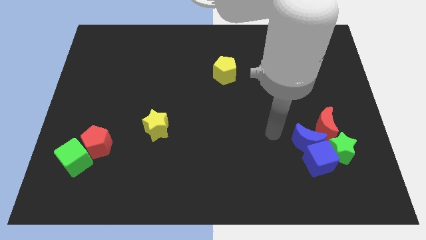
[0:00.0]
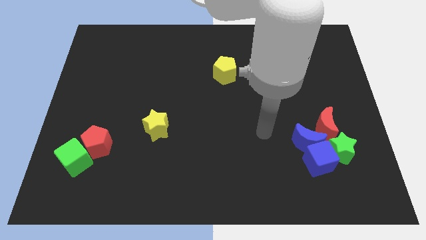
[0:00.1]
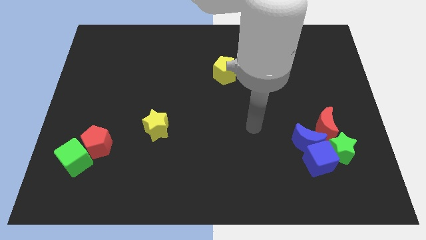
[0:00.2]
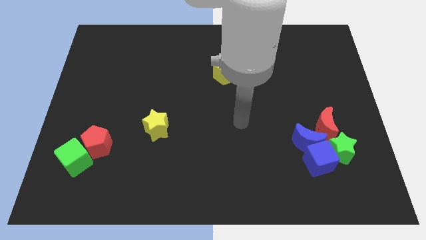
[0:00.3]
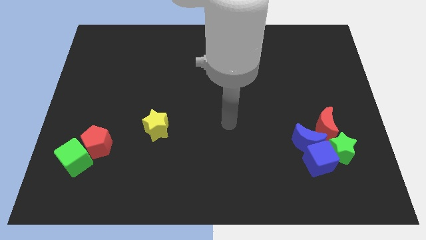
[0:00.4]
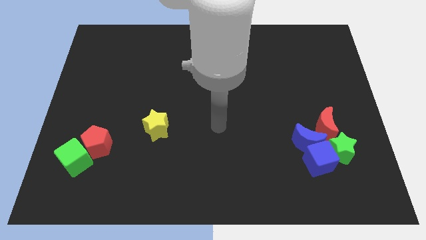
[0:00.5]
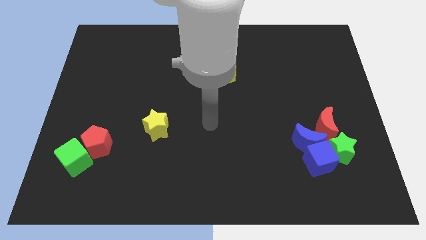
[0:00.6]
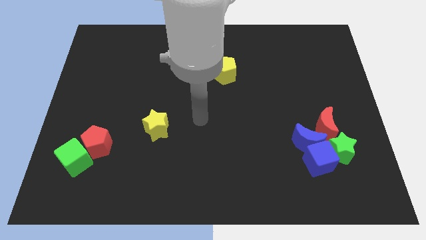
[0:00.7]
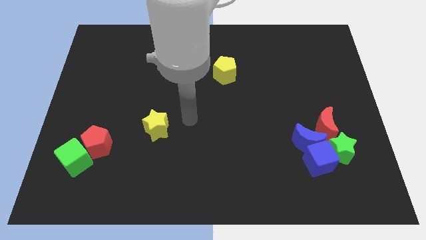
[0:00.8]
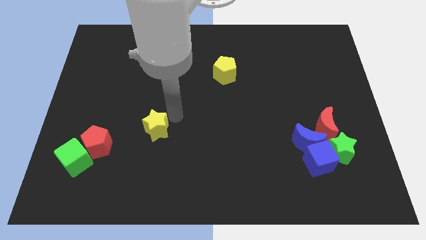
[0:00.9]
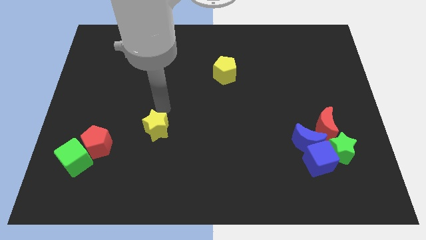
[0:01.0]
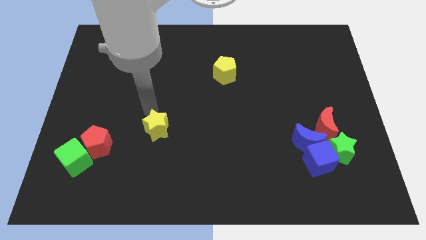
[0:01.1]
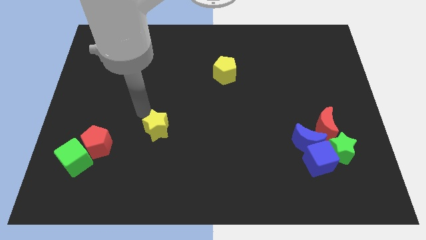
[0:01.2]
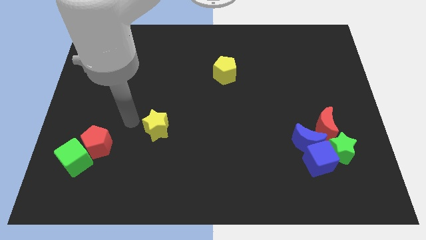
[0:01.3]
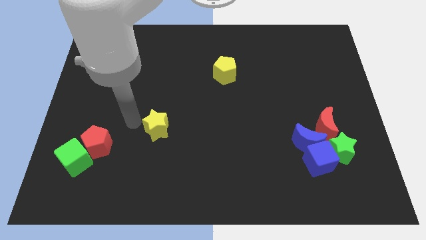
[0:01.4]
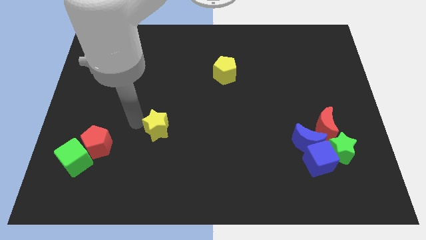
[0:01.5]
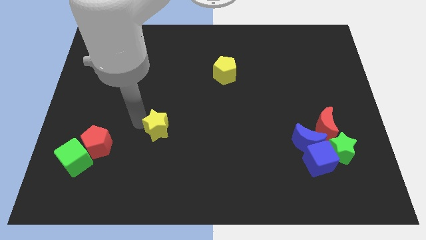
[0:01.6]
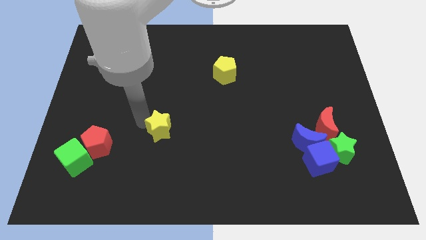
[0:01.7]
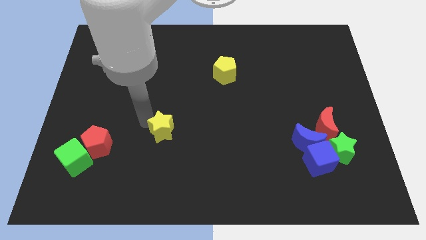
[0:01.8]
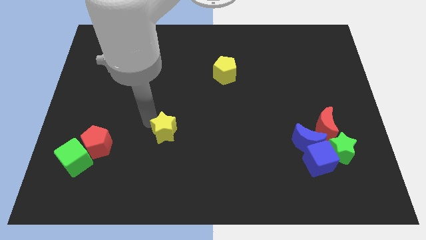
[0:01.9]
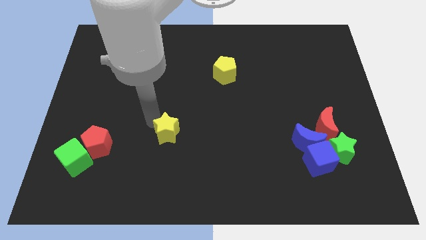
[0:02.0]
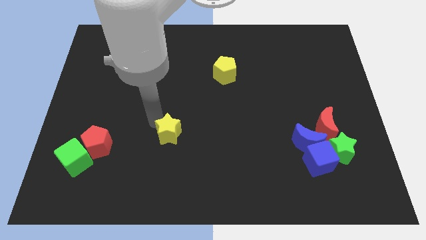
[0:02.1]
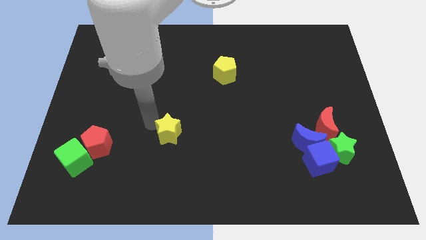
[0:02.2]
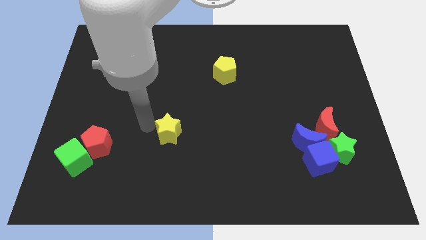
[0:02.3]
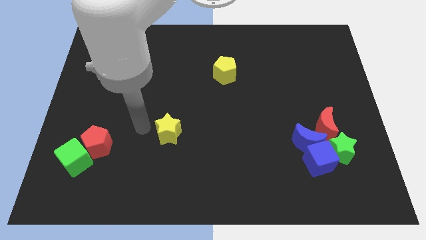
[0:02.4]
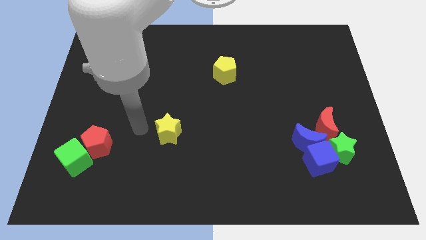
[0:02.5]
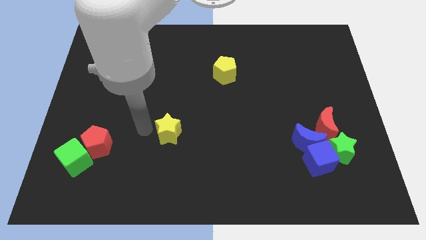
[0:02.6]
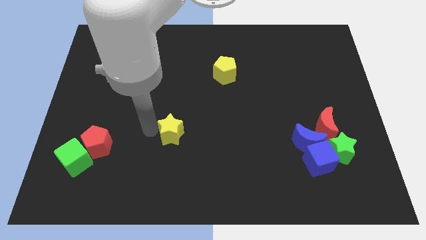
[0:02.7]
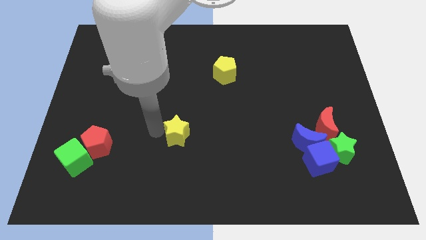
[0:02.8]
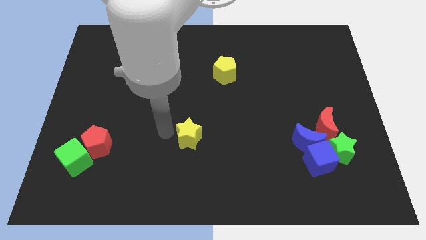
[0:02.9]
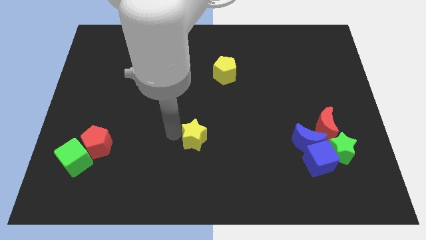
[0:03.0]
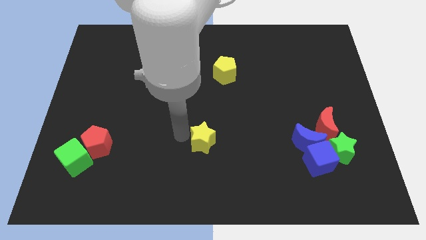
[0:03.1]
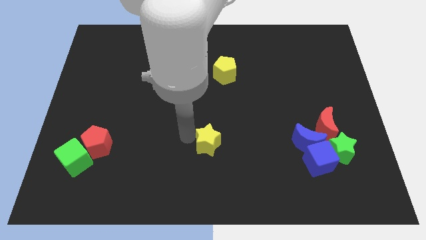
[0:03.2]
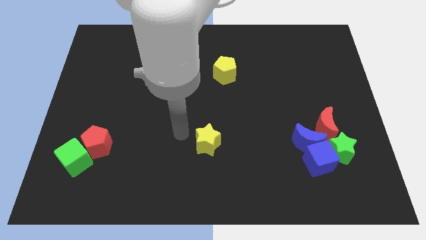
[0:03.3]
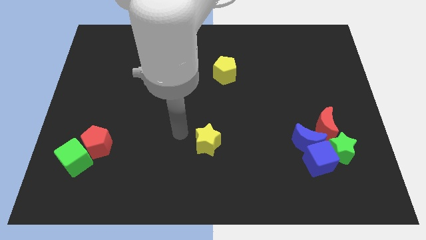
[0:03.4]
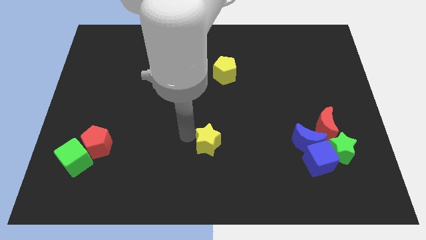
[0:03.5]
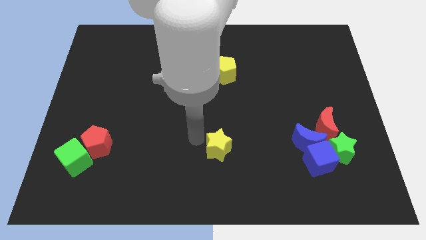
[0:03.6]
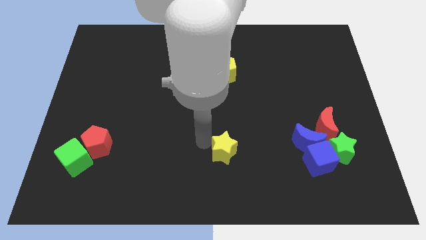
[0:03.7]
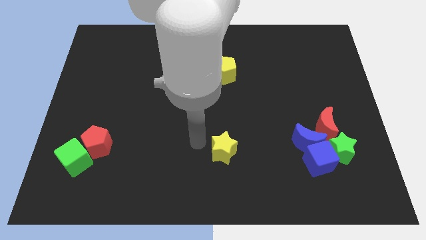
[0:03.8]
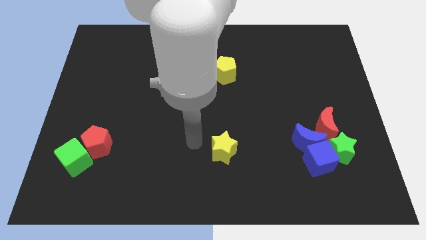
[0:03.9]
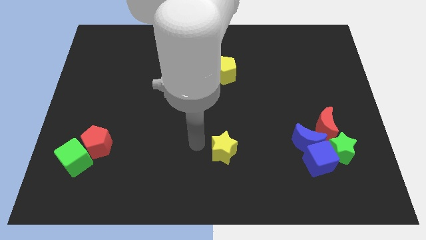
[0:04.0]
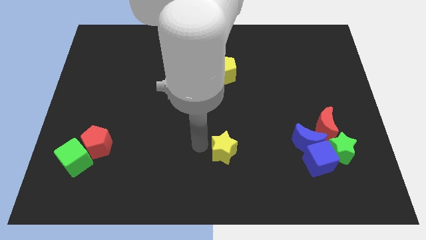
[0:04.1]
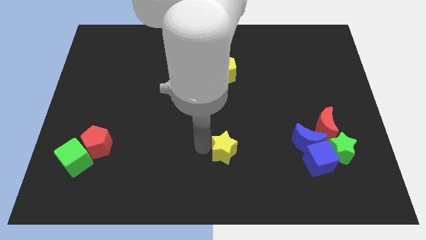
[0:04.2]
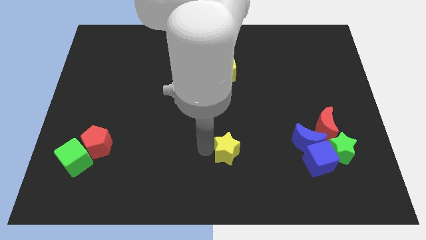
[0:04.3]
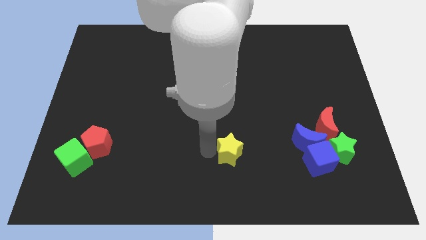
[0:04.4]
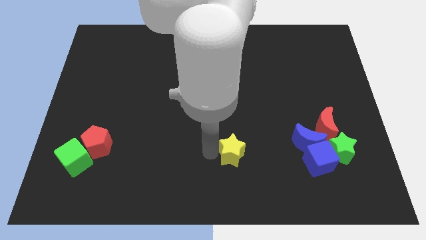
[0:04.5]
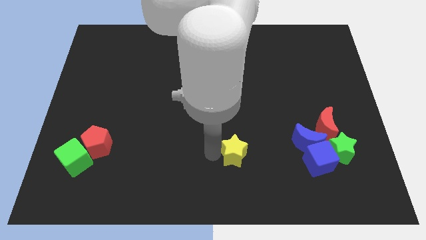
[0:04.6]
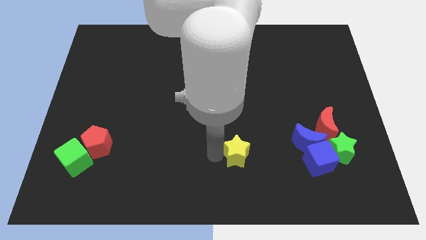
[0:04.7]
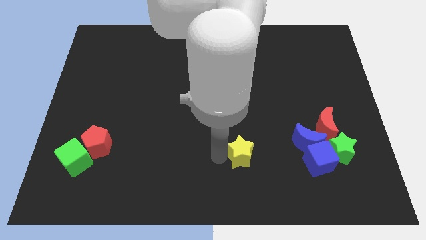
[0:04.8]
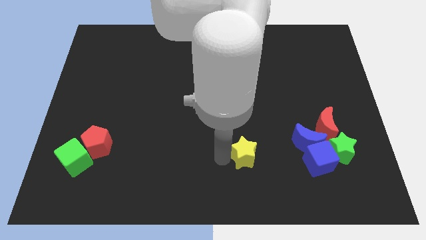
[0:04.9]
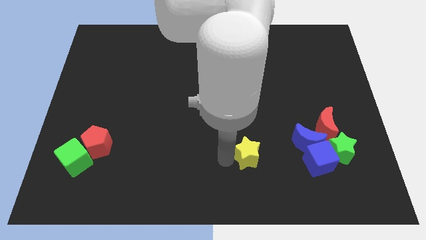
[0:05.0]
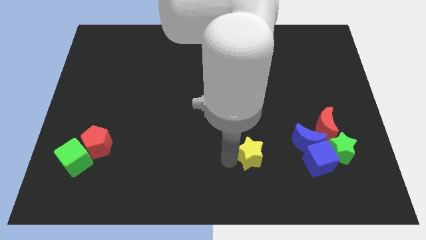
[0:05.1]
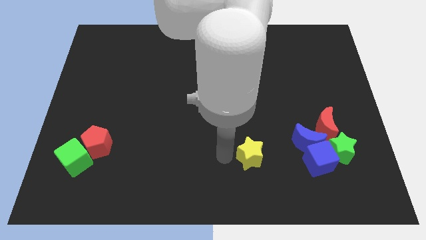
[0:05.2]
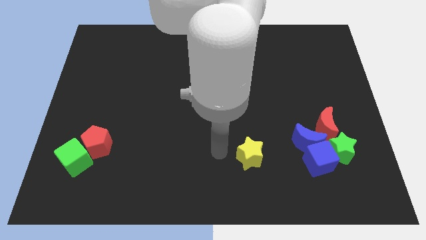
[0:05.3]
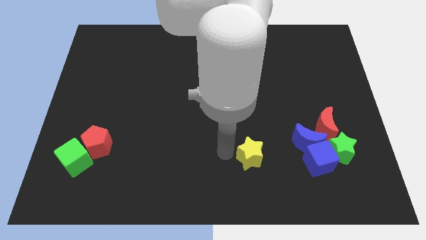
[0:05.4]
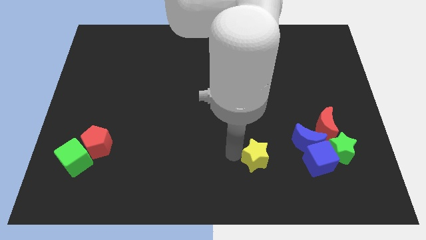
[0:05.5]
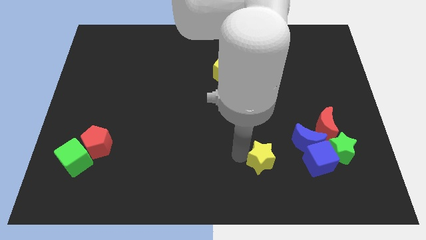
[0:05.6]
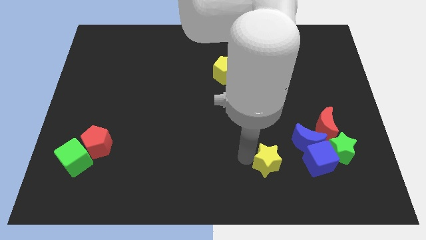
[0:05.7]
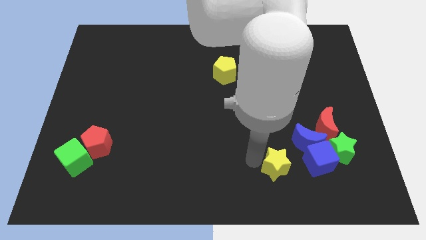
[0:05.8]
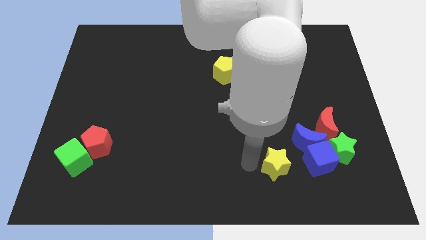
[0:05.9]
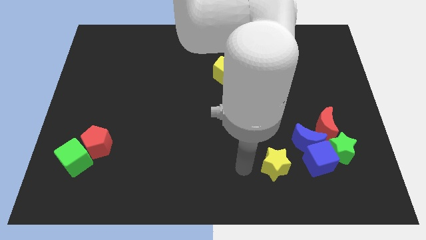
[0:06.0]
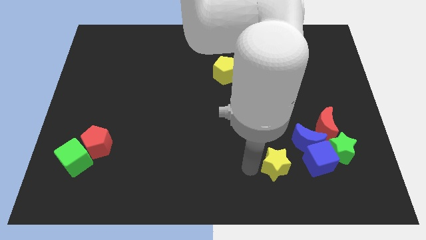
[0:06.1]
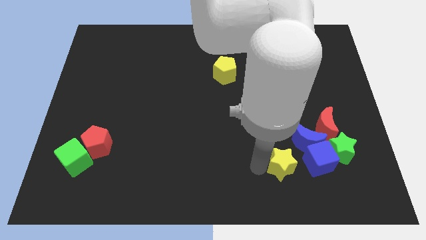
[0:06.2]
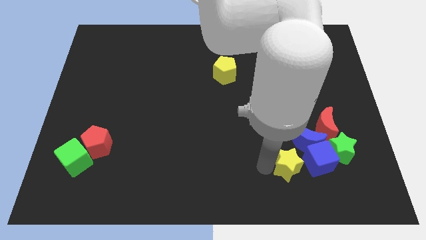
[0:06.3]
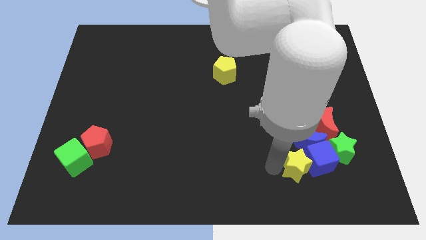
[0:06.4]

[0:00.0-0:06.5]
move the yellow star next to the blue cube

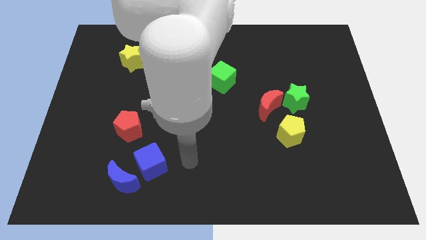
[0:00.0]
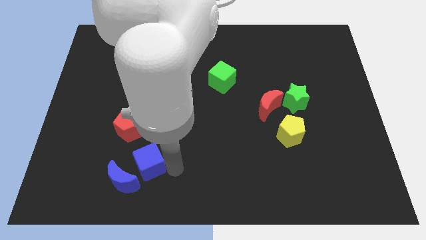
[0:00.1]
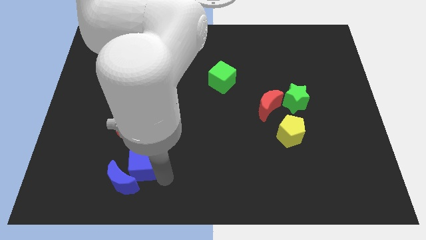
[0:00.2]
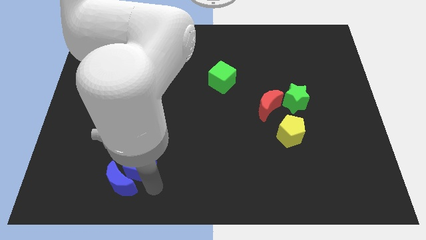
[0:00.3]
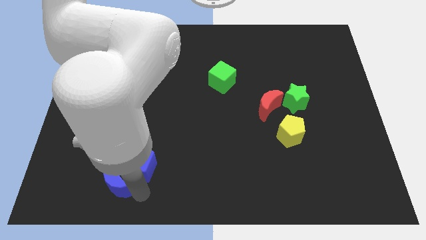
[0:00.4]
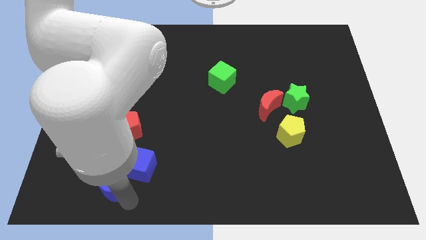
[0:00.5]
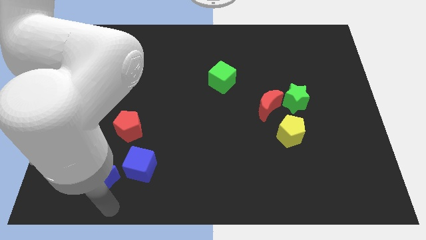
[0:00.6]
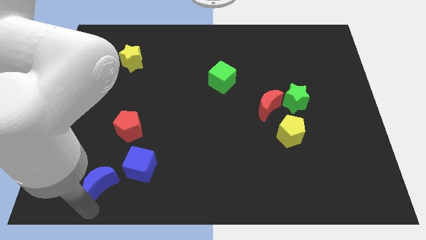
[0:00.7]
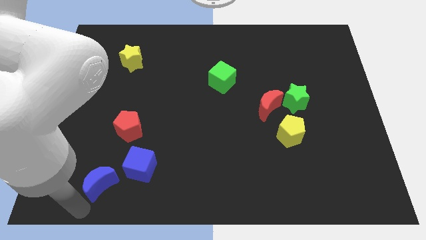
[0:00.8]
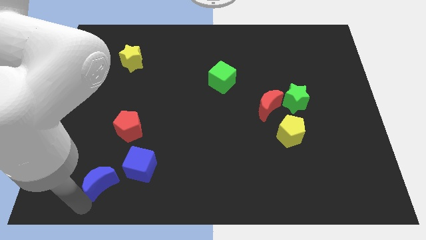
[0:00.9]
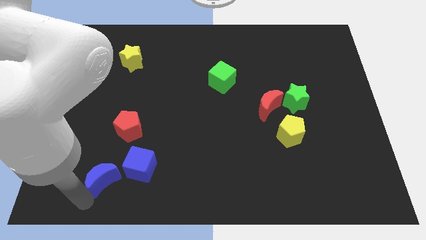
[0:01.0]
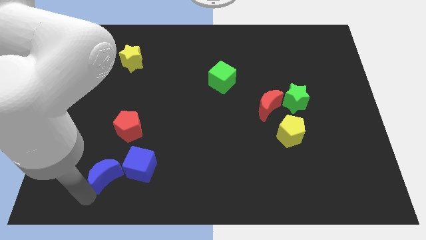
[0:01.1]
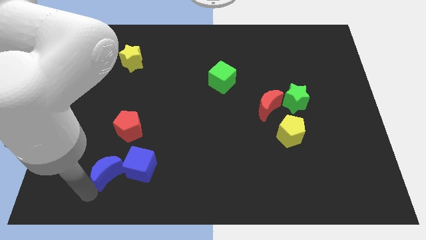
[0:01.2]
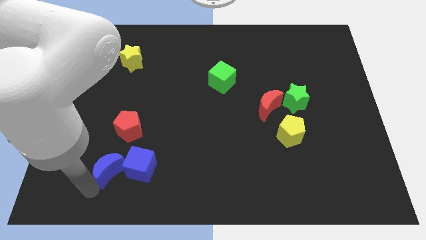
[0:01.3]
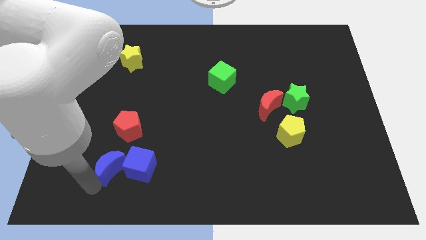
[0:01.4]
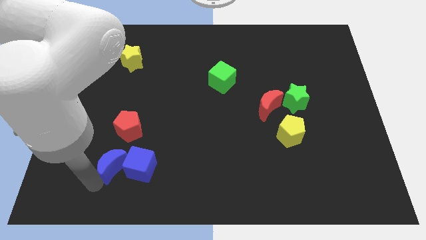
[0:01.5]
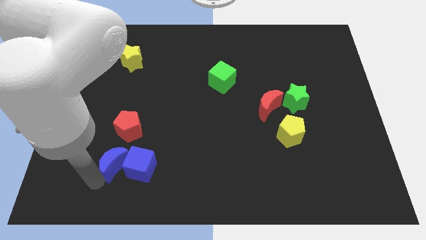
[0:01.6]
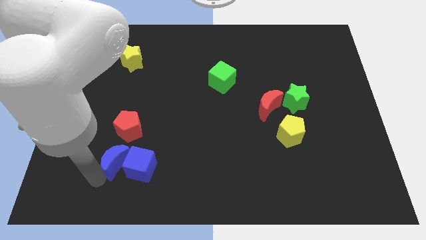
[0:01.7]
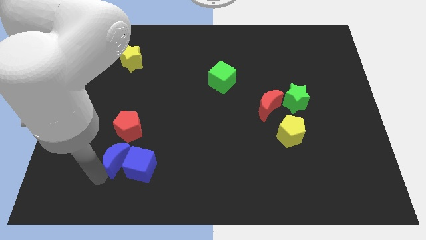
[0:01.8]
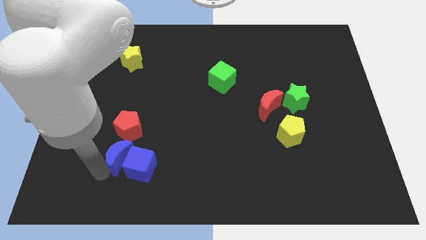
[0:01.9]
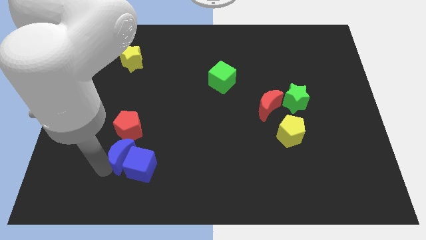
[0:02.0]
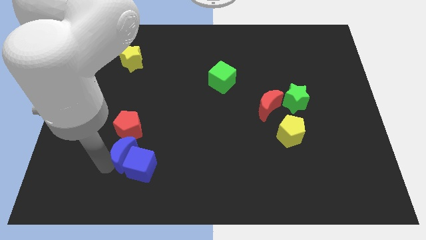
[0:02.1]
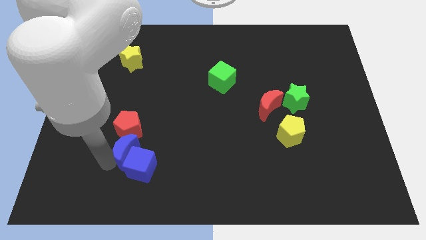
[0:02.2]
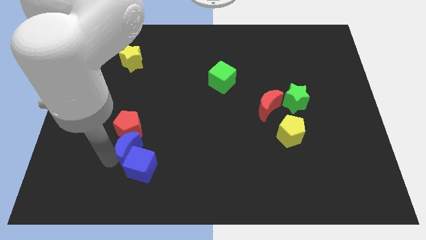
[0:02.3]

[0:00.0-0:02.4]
put the blue moon to the red pentagon
